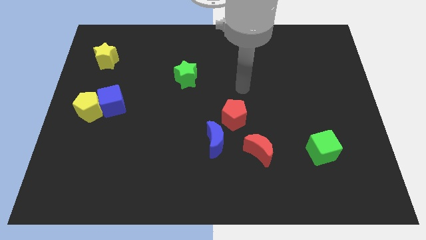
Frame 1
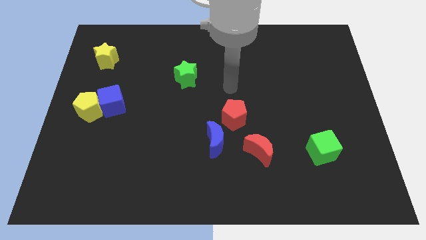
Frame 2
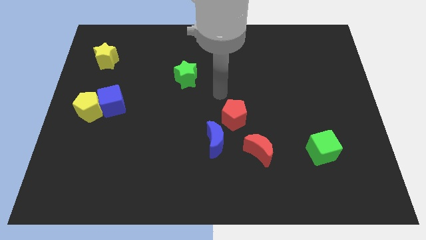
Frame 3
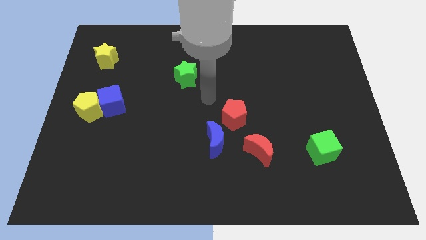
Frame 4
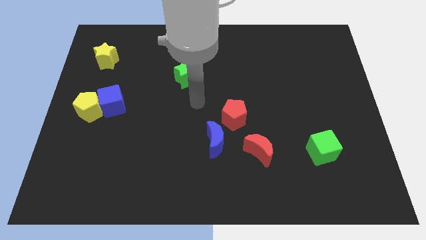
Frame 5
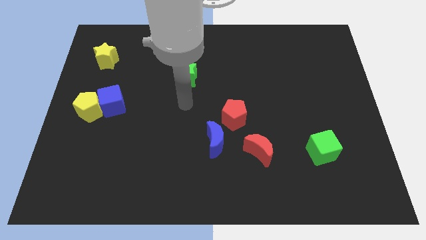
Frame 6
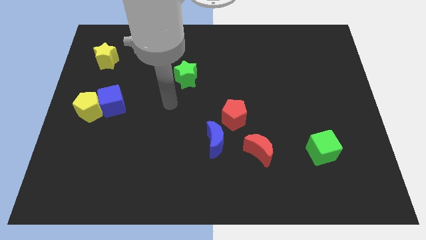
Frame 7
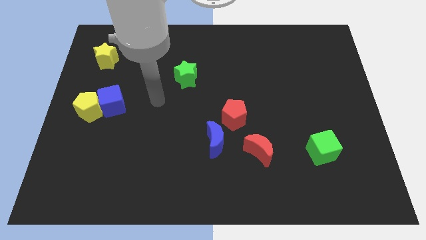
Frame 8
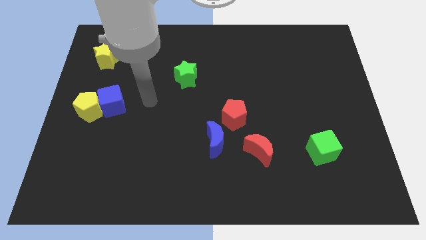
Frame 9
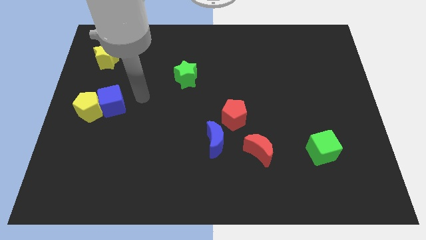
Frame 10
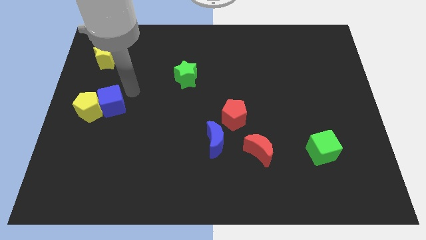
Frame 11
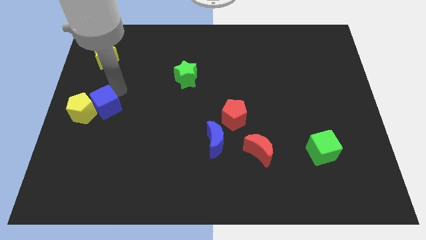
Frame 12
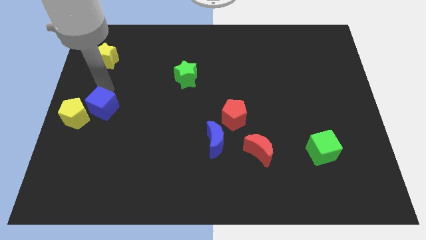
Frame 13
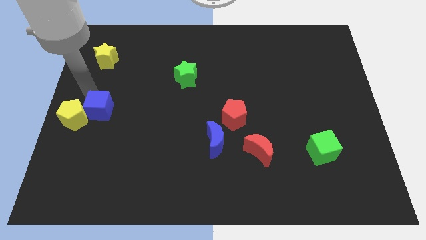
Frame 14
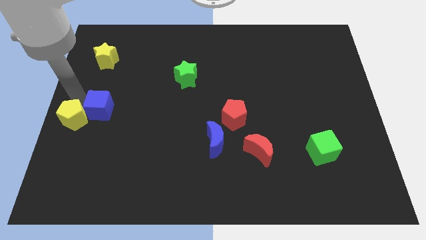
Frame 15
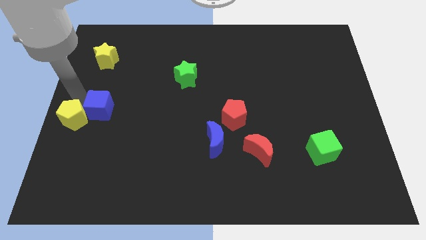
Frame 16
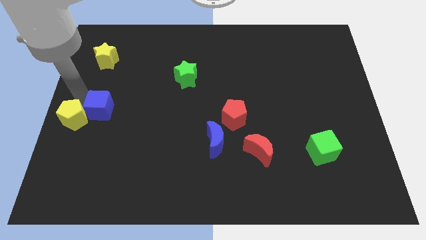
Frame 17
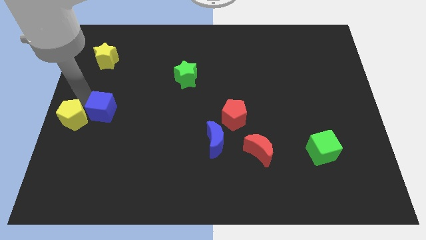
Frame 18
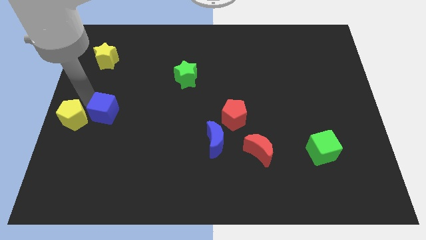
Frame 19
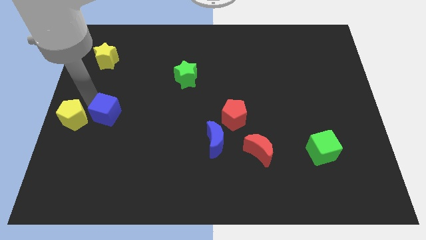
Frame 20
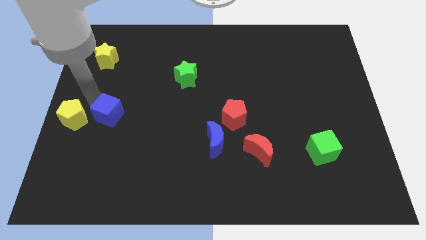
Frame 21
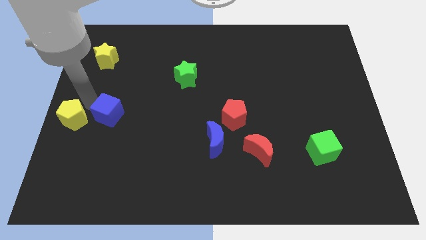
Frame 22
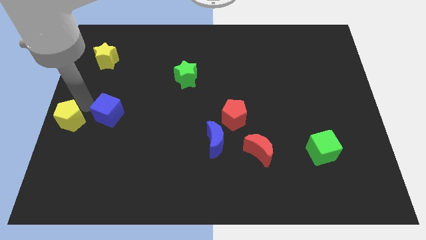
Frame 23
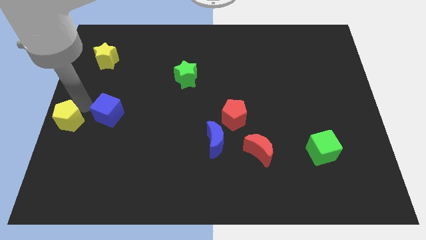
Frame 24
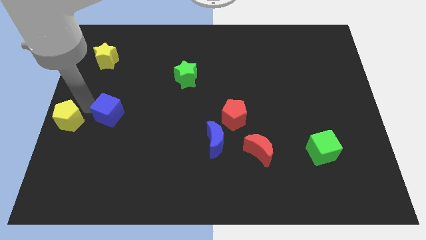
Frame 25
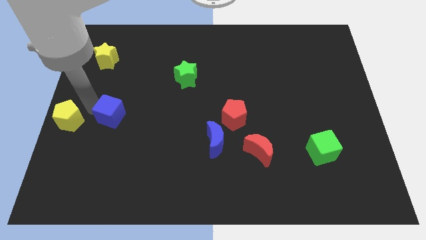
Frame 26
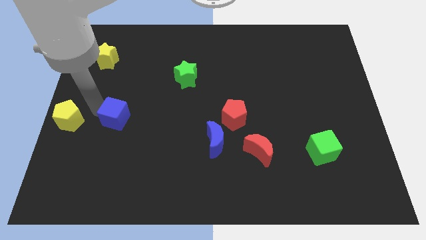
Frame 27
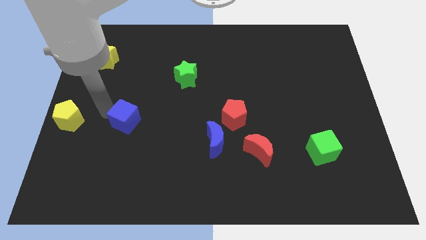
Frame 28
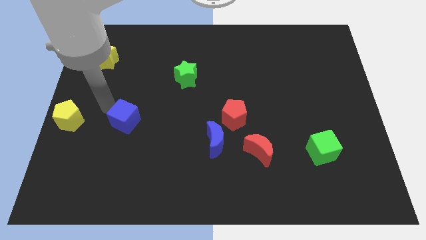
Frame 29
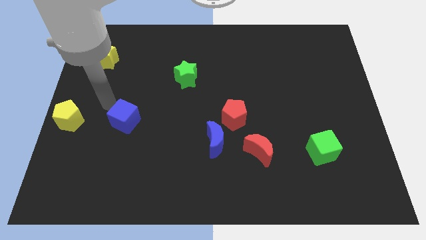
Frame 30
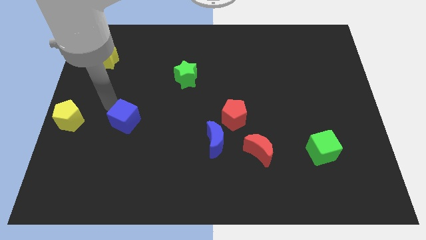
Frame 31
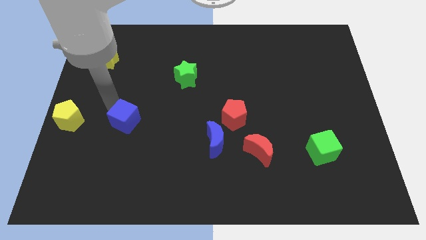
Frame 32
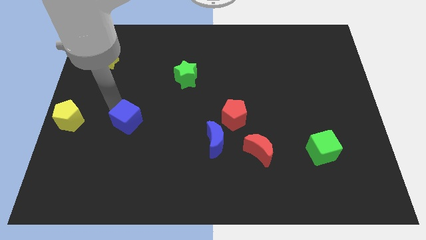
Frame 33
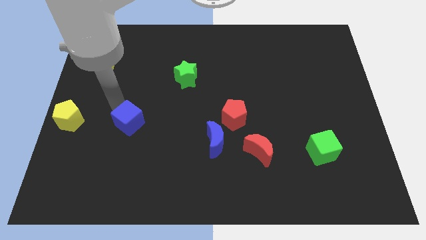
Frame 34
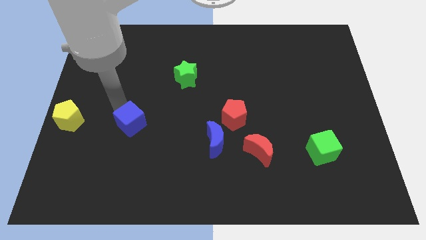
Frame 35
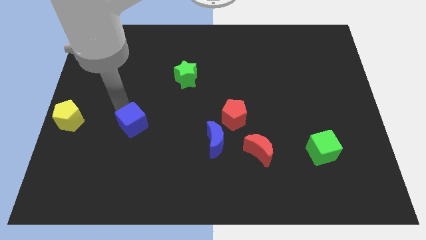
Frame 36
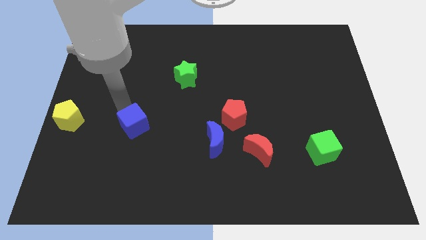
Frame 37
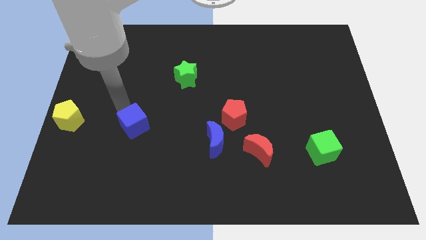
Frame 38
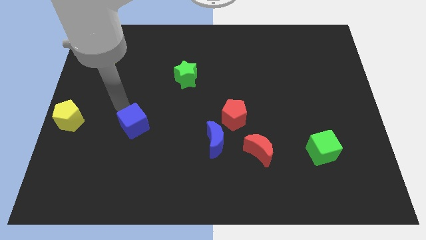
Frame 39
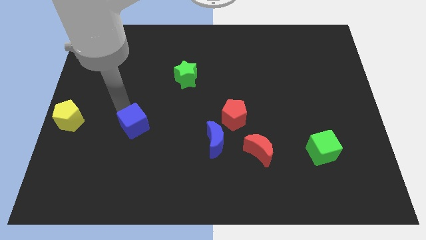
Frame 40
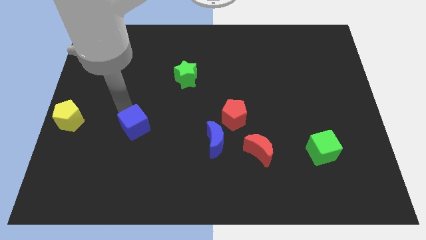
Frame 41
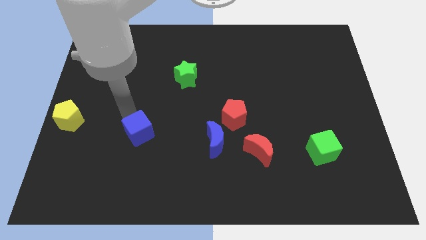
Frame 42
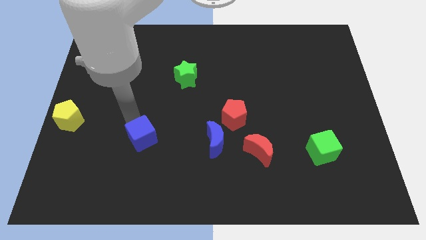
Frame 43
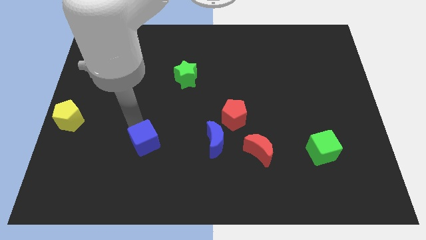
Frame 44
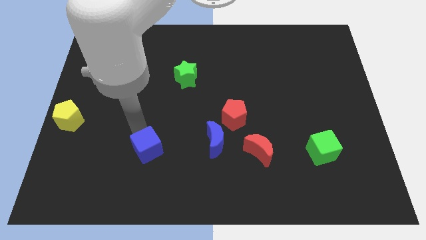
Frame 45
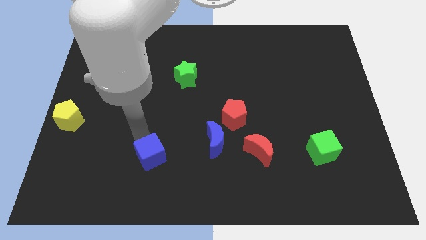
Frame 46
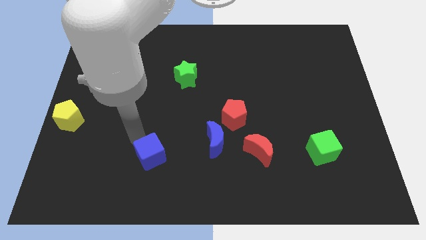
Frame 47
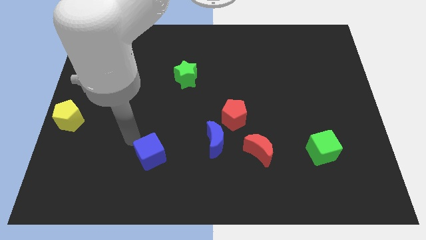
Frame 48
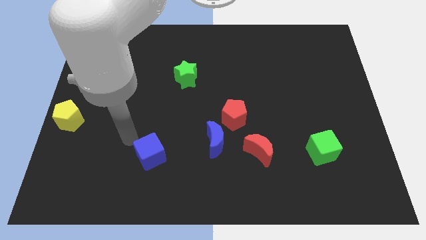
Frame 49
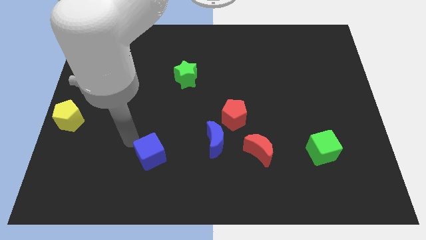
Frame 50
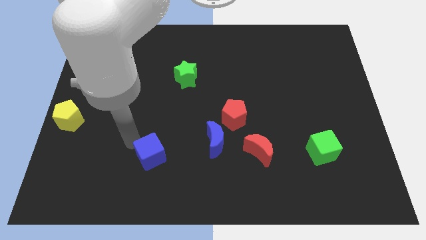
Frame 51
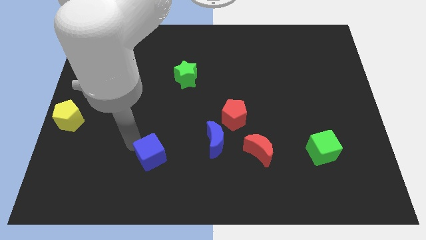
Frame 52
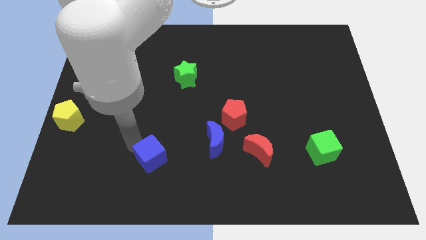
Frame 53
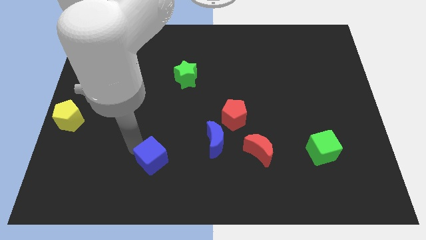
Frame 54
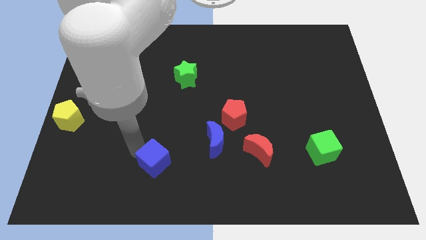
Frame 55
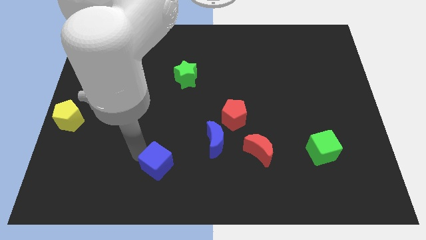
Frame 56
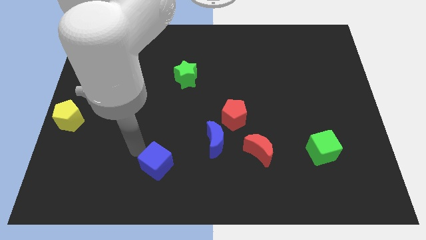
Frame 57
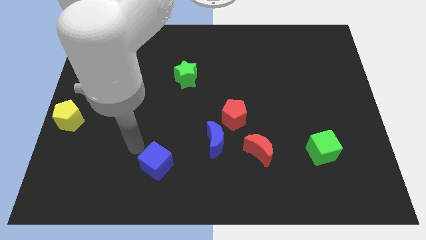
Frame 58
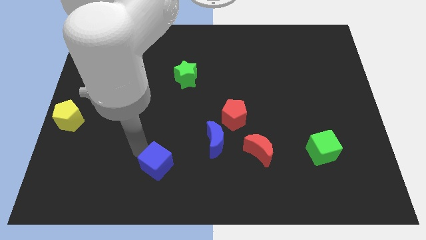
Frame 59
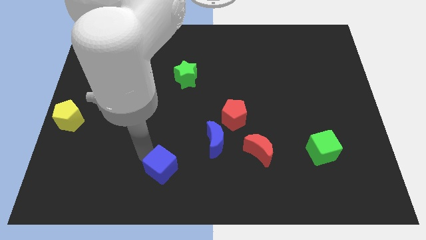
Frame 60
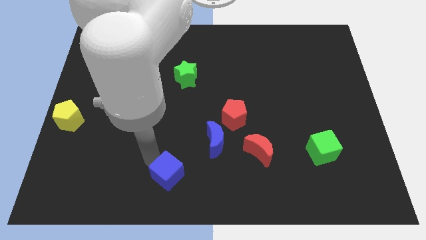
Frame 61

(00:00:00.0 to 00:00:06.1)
slide the blue cube to the bottom side

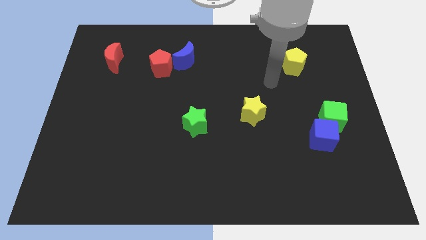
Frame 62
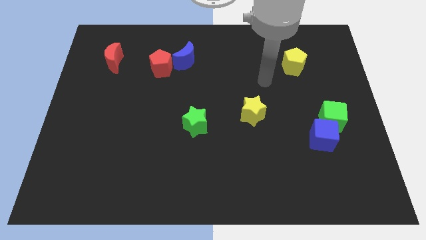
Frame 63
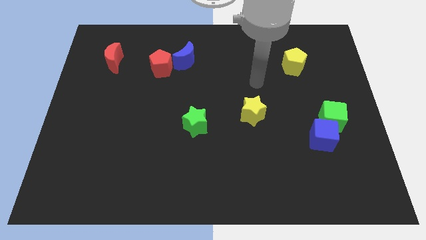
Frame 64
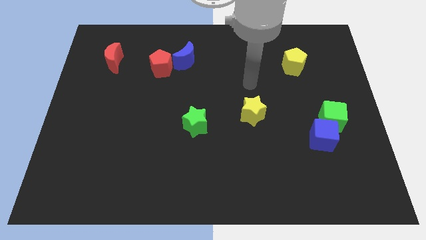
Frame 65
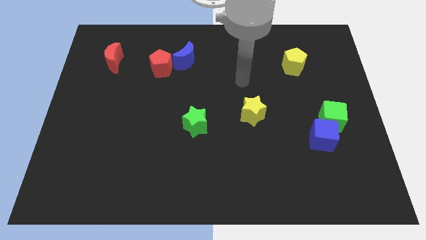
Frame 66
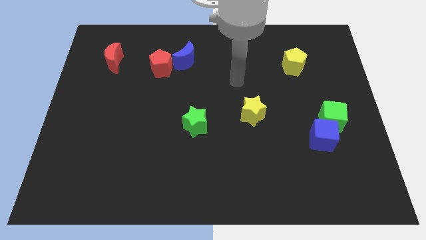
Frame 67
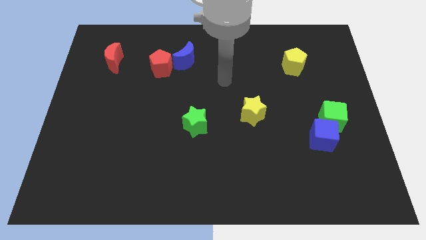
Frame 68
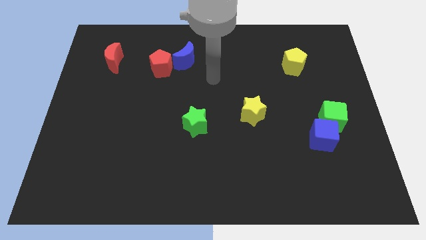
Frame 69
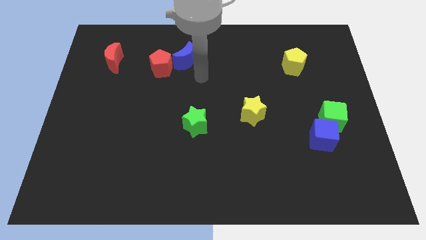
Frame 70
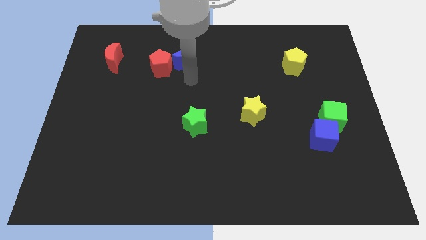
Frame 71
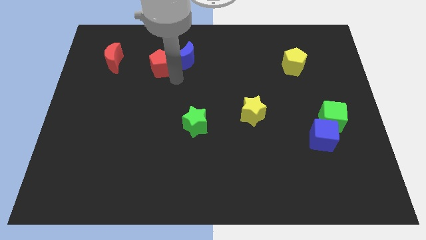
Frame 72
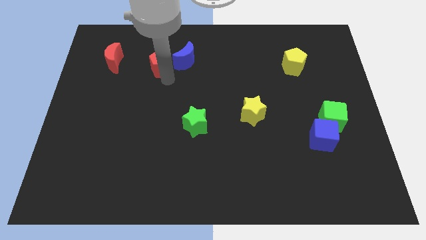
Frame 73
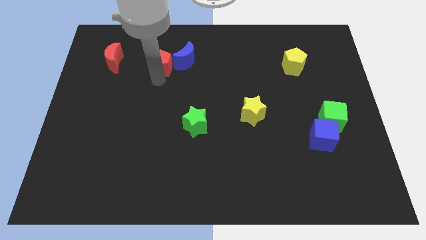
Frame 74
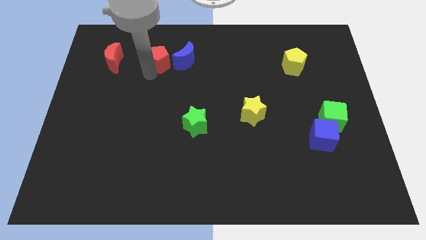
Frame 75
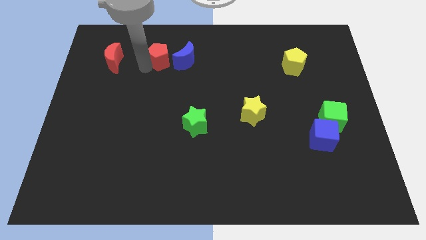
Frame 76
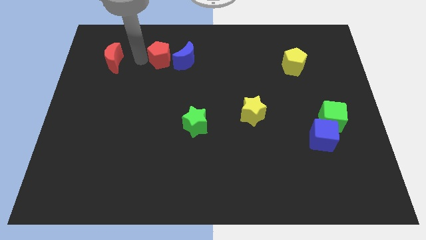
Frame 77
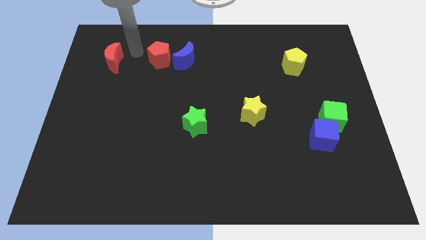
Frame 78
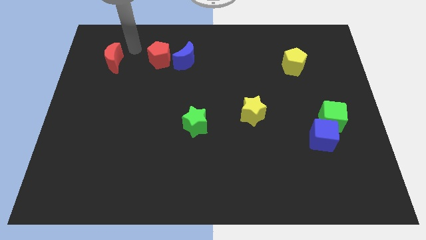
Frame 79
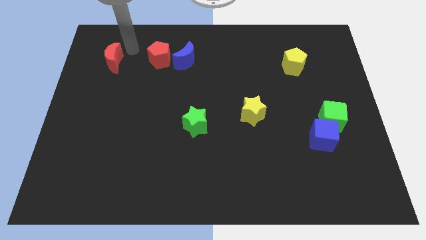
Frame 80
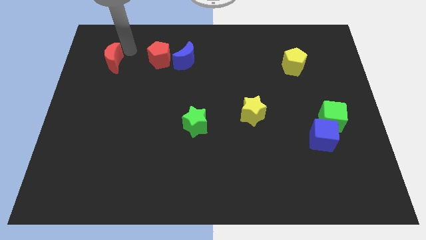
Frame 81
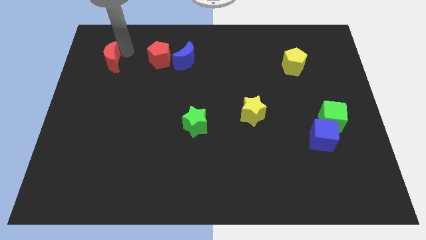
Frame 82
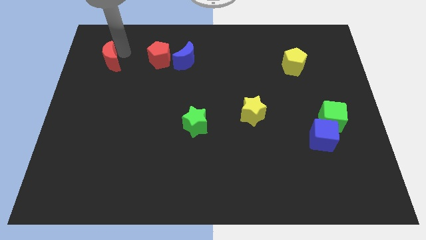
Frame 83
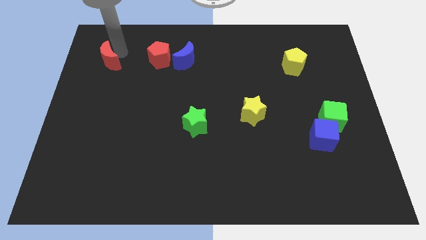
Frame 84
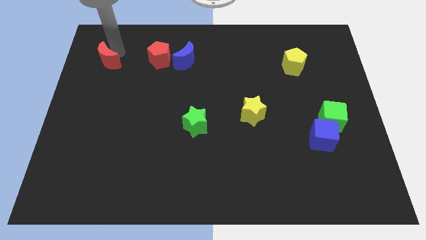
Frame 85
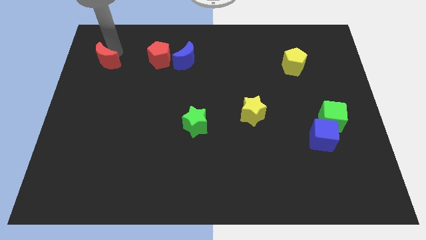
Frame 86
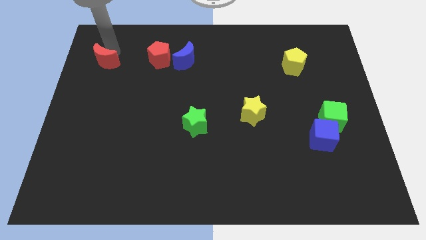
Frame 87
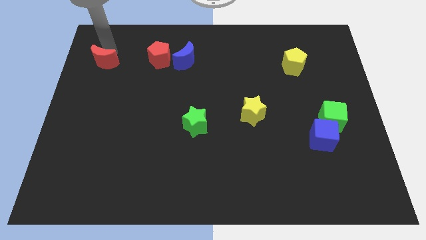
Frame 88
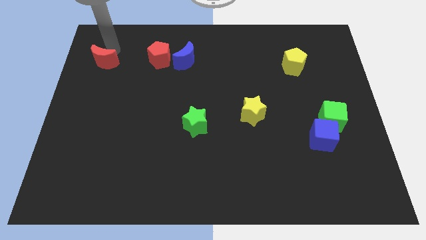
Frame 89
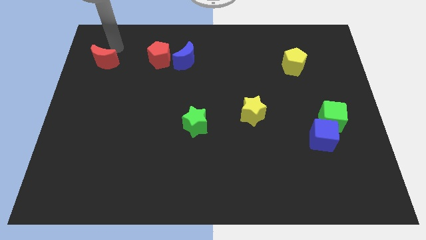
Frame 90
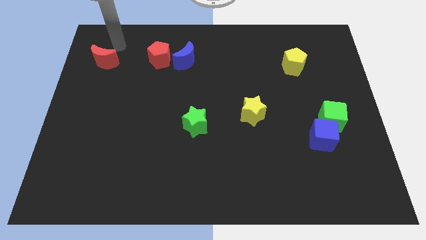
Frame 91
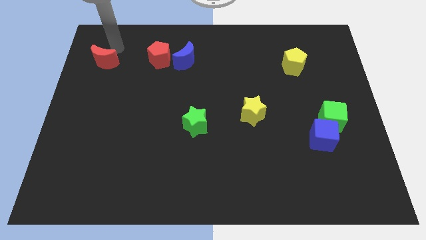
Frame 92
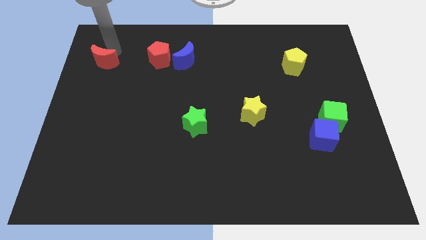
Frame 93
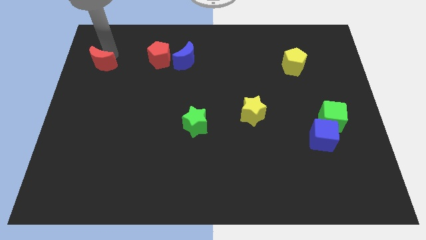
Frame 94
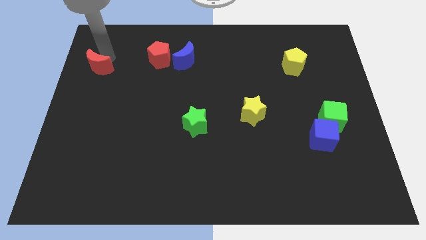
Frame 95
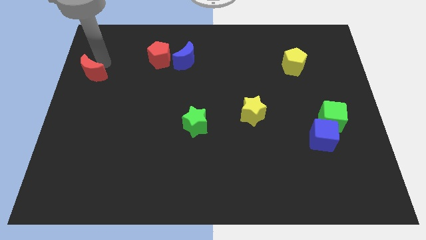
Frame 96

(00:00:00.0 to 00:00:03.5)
move the red moon to the left side
